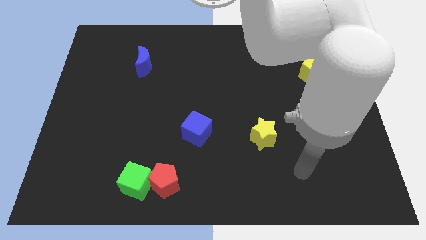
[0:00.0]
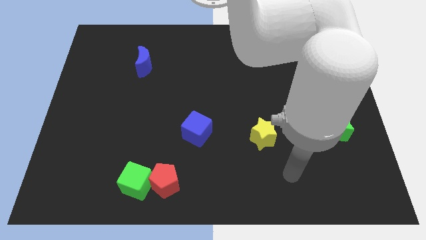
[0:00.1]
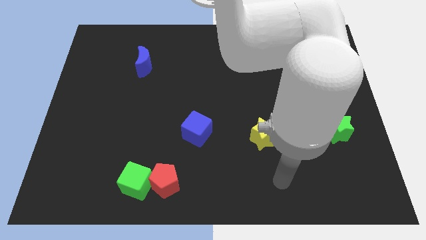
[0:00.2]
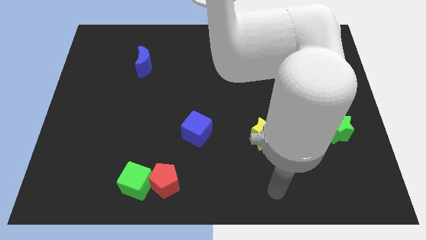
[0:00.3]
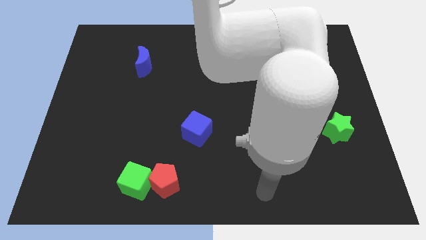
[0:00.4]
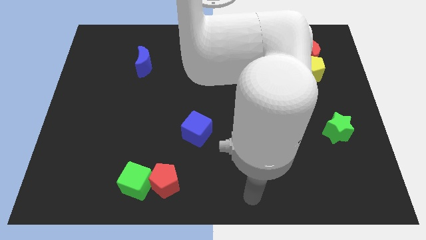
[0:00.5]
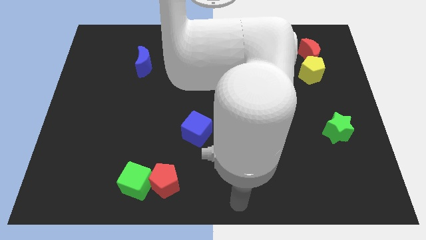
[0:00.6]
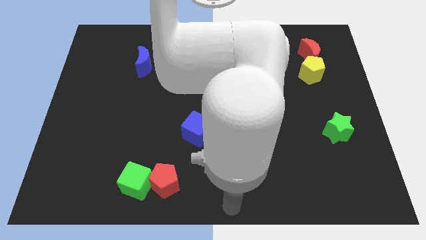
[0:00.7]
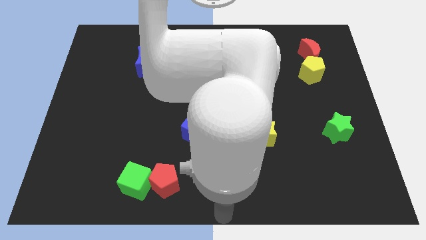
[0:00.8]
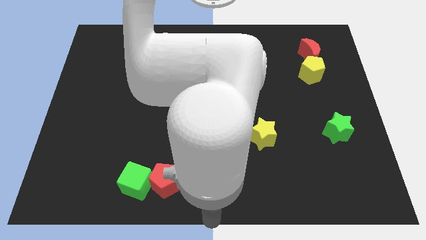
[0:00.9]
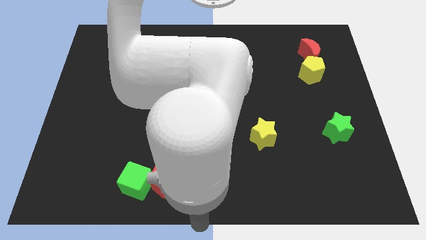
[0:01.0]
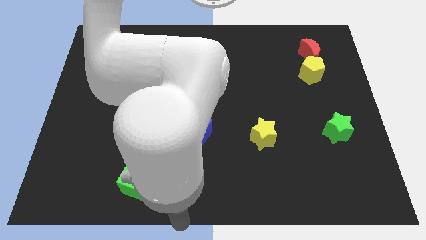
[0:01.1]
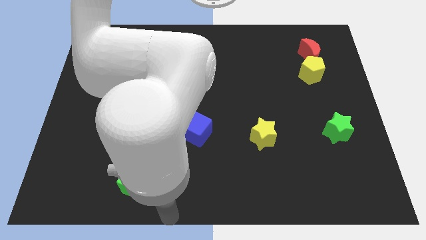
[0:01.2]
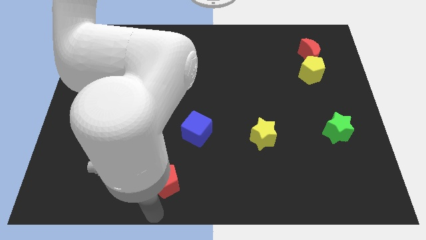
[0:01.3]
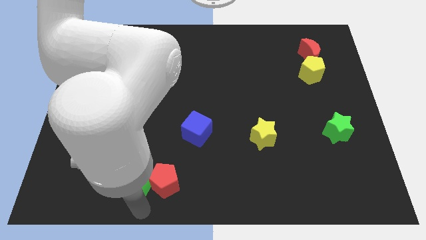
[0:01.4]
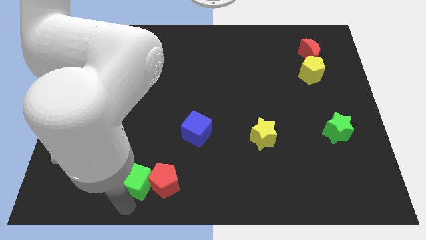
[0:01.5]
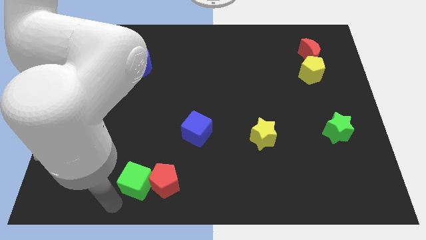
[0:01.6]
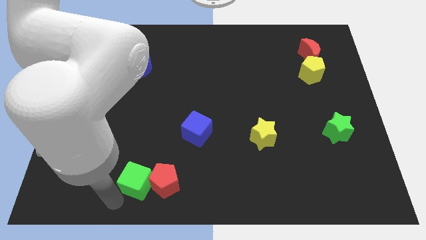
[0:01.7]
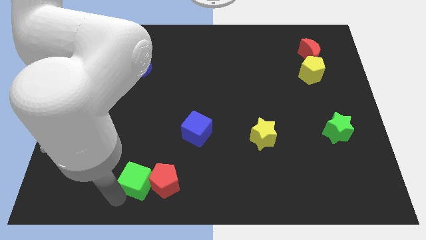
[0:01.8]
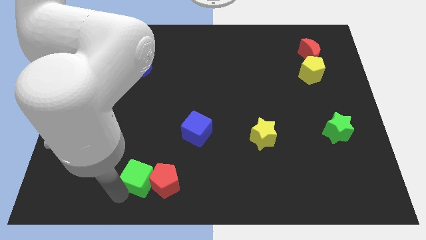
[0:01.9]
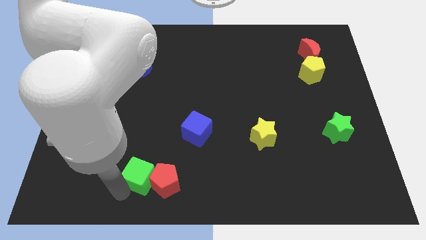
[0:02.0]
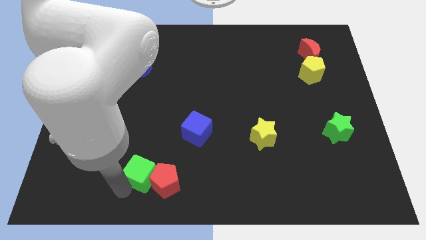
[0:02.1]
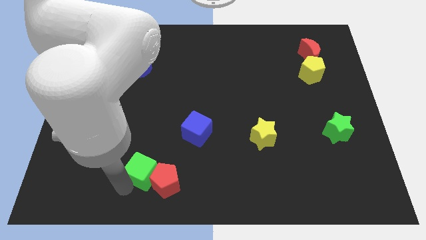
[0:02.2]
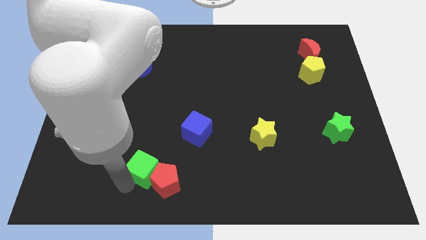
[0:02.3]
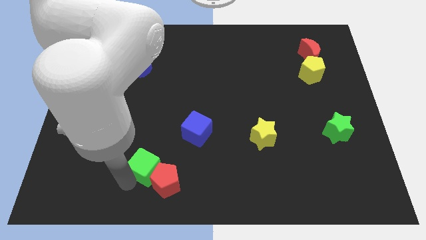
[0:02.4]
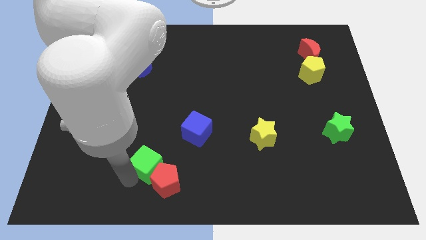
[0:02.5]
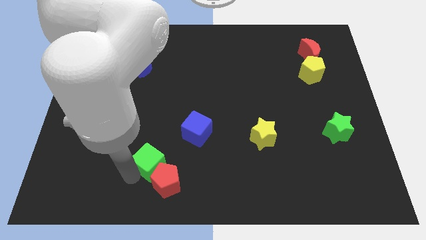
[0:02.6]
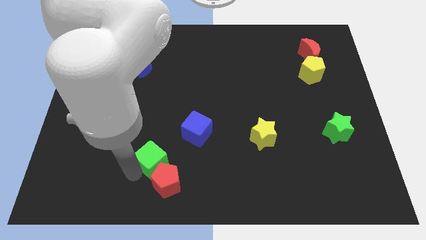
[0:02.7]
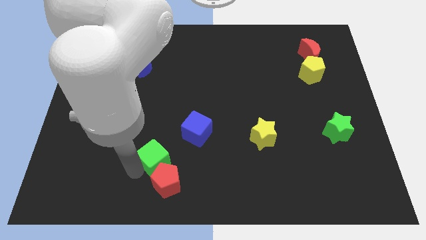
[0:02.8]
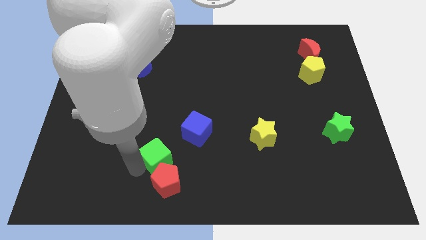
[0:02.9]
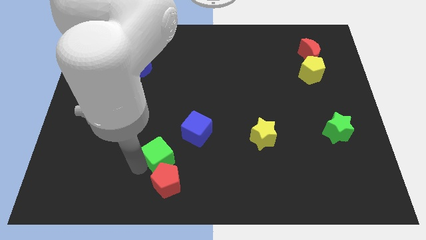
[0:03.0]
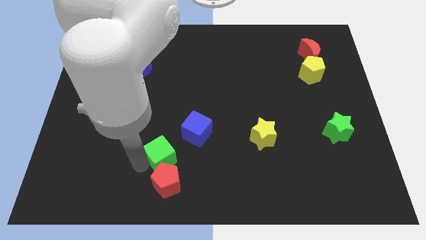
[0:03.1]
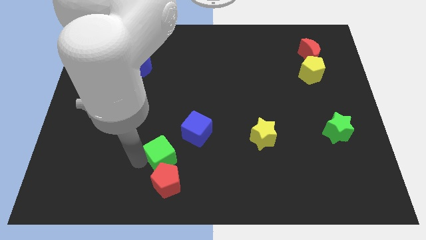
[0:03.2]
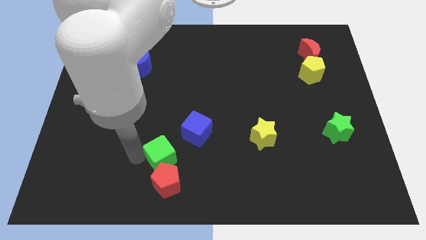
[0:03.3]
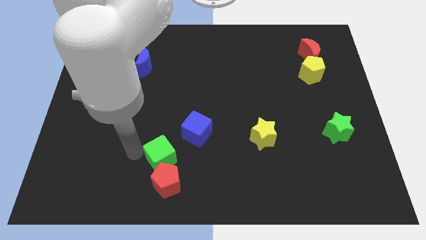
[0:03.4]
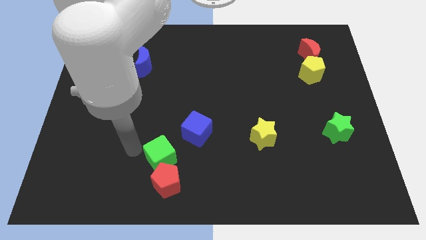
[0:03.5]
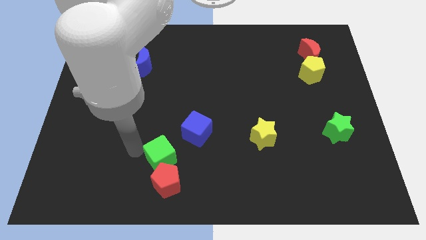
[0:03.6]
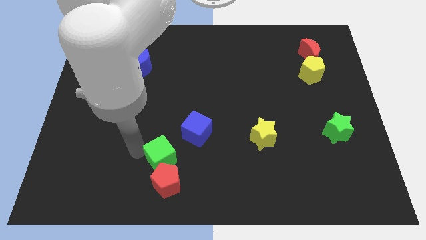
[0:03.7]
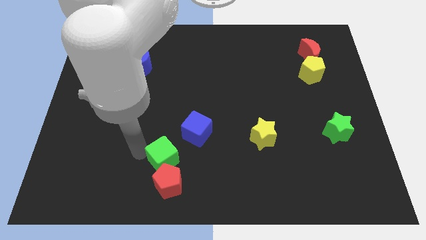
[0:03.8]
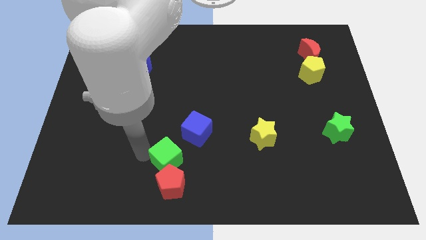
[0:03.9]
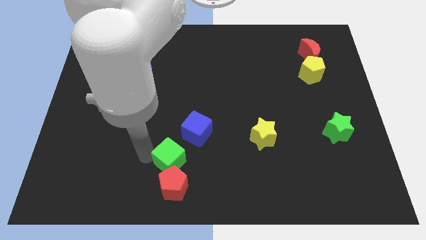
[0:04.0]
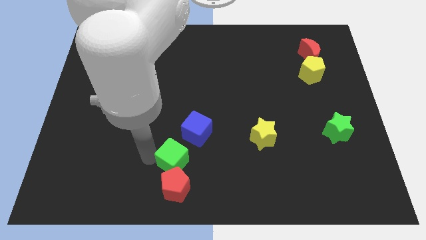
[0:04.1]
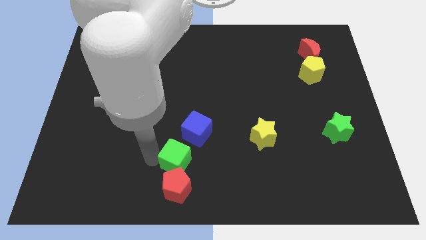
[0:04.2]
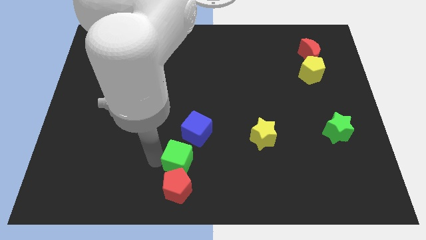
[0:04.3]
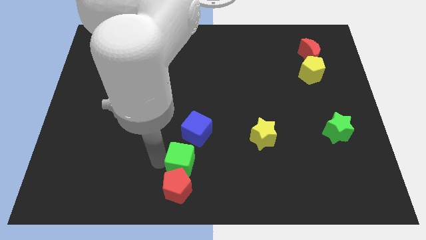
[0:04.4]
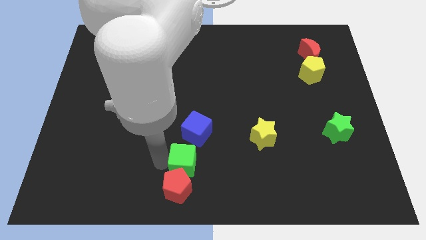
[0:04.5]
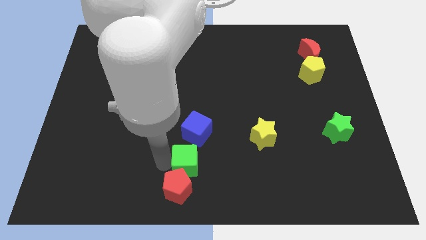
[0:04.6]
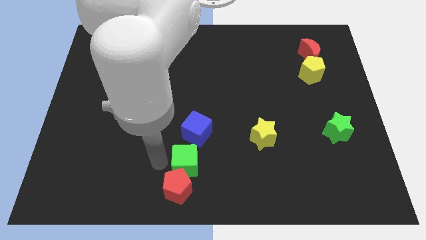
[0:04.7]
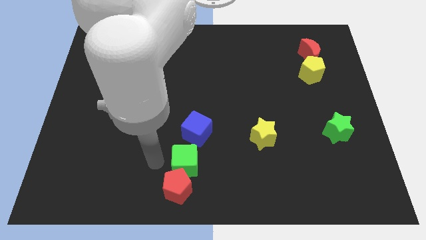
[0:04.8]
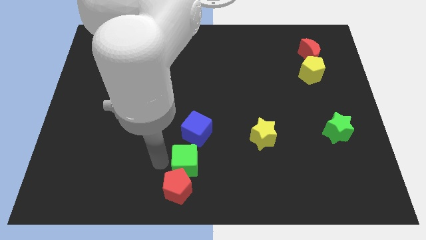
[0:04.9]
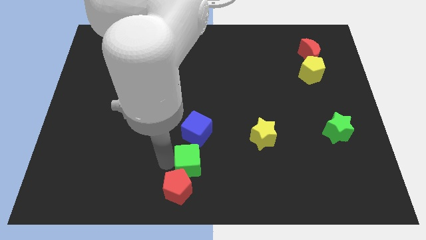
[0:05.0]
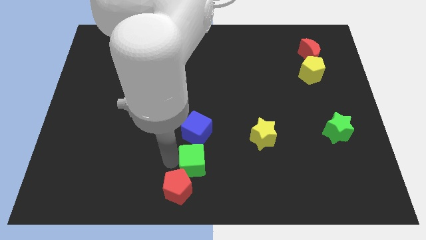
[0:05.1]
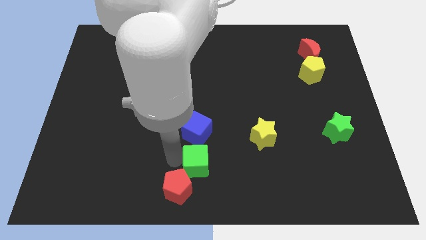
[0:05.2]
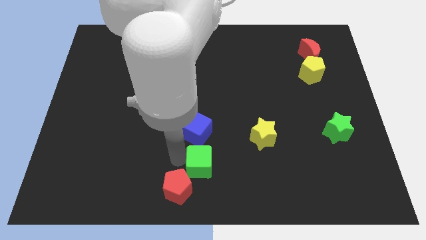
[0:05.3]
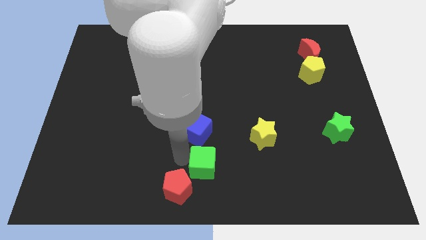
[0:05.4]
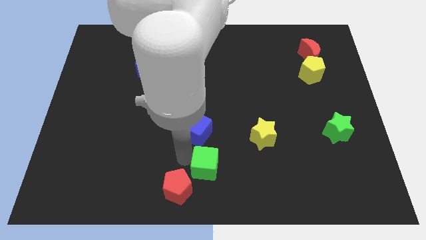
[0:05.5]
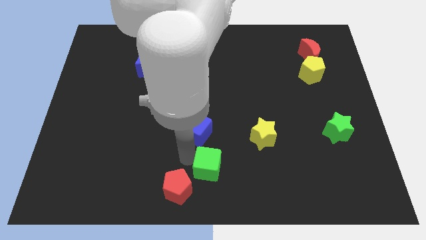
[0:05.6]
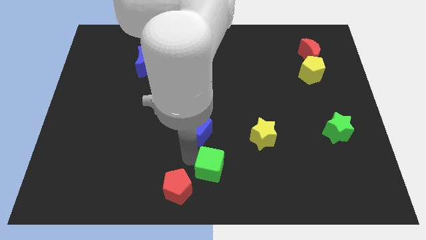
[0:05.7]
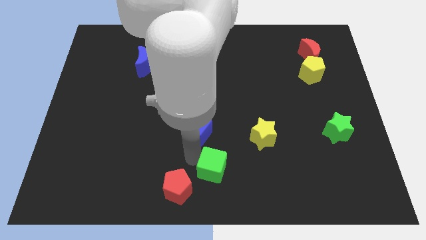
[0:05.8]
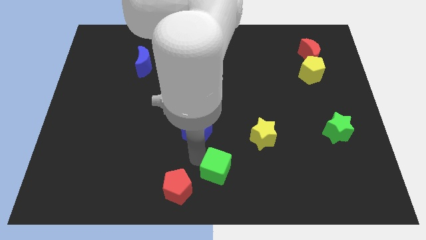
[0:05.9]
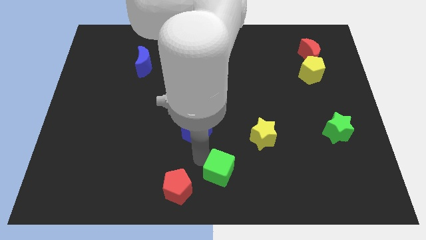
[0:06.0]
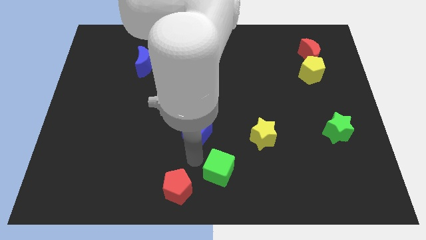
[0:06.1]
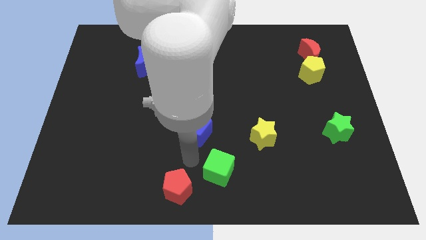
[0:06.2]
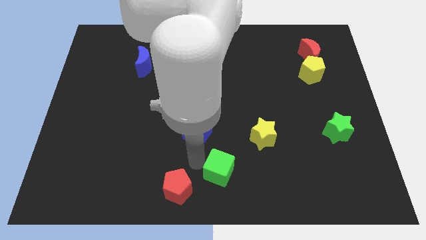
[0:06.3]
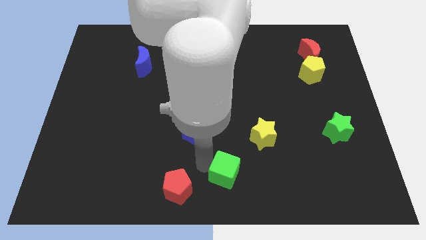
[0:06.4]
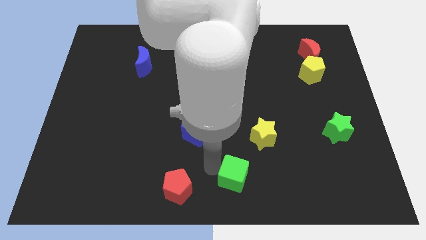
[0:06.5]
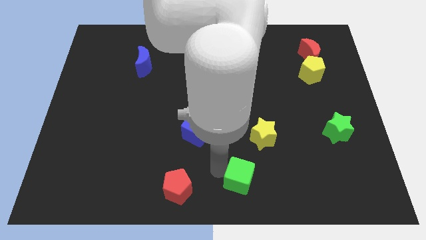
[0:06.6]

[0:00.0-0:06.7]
push the green cube right

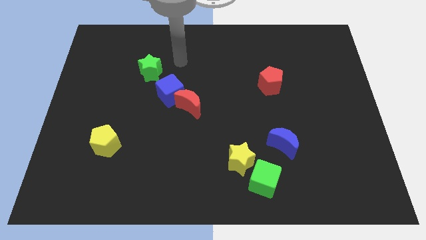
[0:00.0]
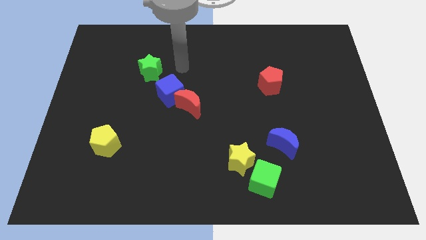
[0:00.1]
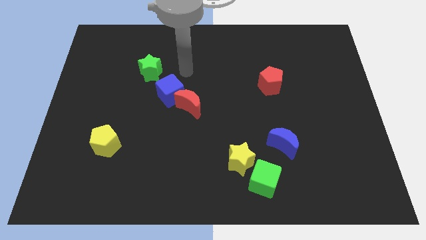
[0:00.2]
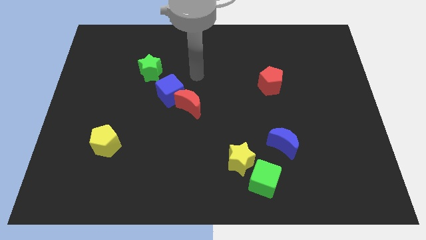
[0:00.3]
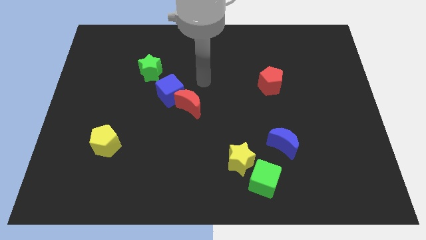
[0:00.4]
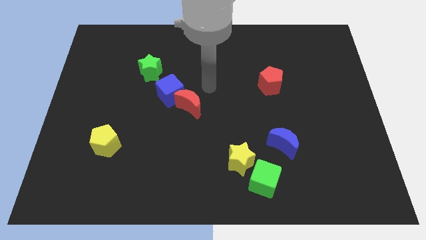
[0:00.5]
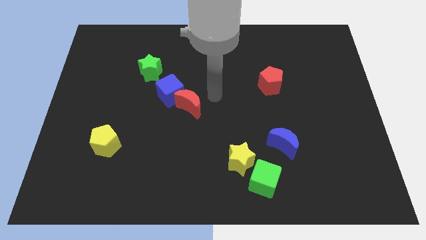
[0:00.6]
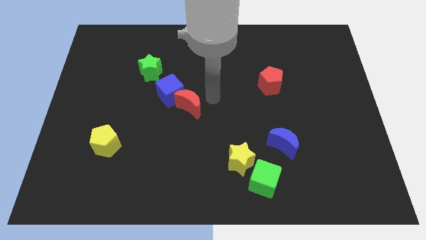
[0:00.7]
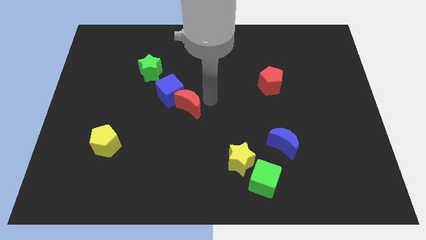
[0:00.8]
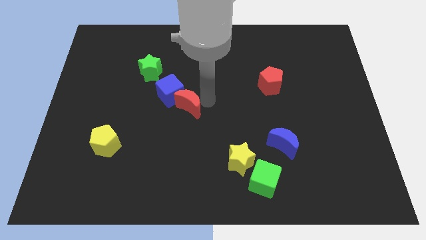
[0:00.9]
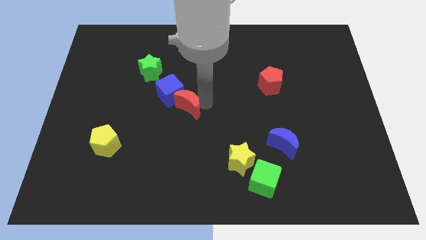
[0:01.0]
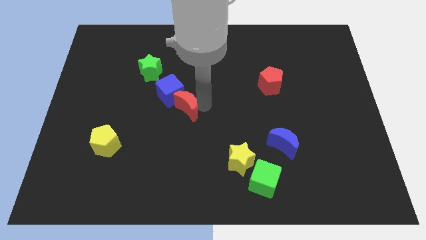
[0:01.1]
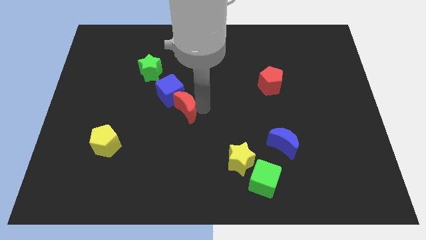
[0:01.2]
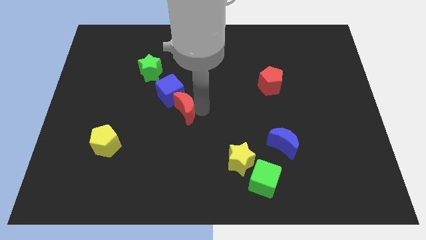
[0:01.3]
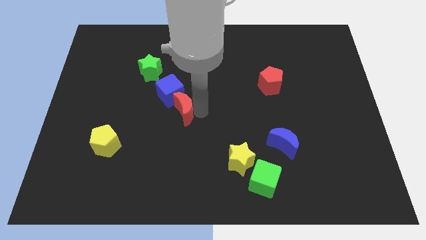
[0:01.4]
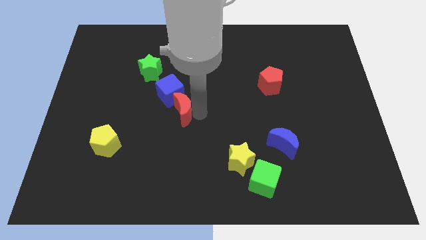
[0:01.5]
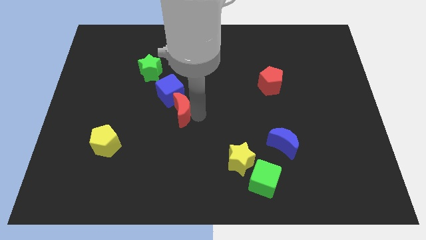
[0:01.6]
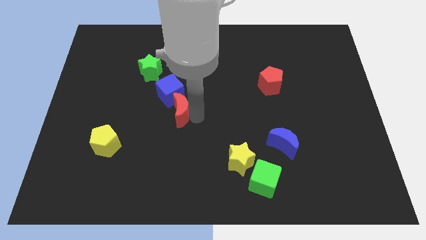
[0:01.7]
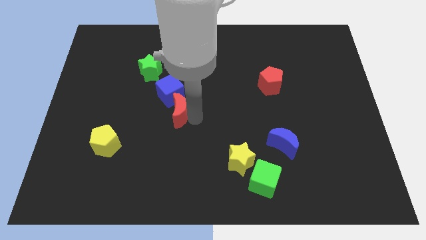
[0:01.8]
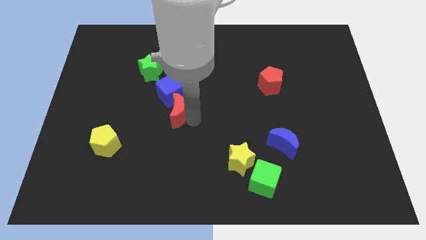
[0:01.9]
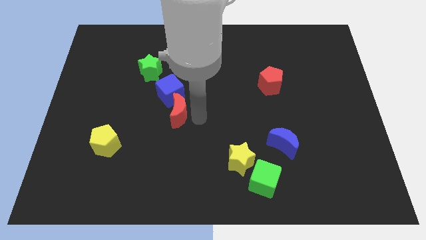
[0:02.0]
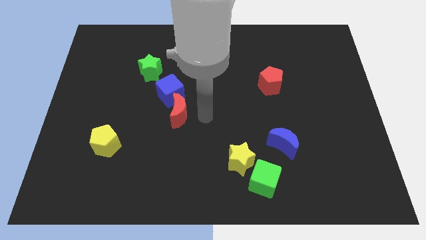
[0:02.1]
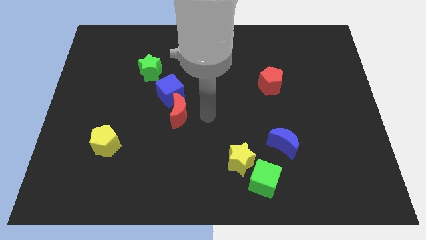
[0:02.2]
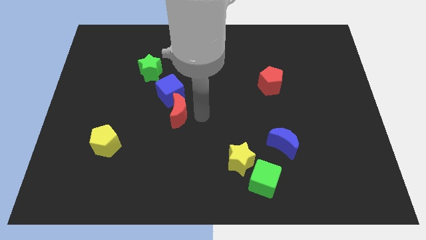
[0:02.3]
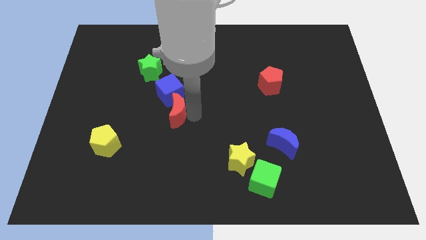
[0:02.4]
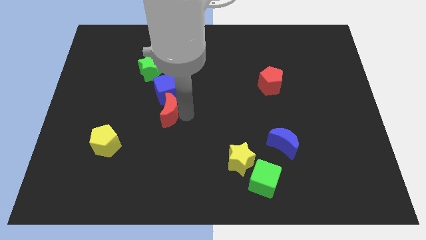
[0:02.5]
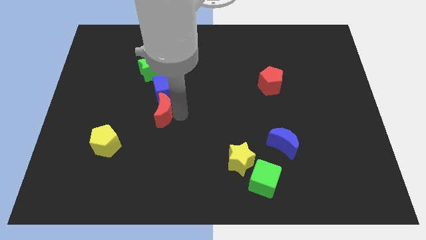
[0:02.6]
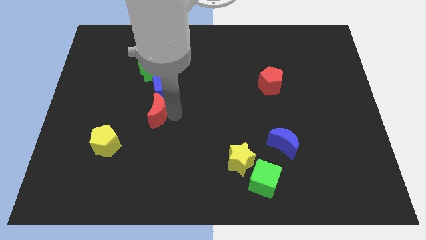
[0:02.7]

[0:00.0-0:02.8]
slide the red moon a bit to the left
